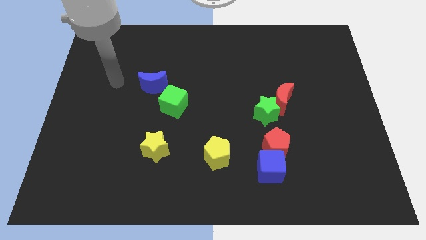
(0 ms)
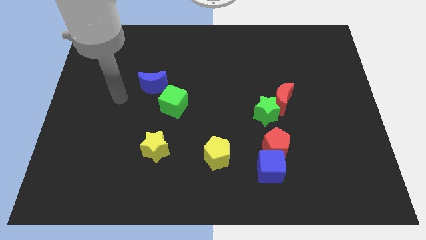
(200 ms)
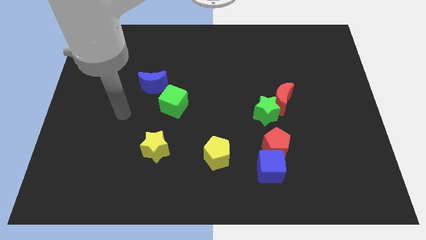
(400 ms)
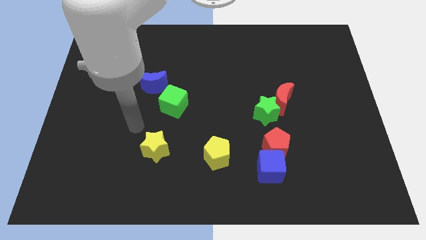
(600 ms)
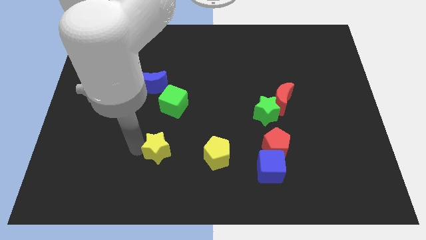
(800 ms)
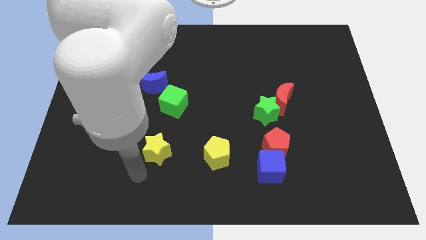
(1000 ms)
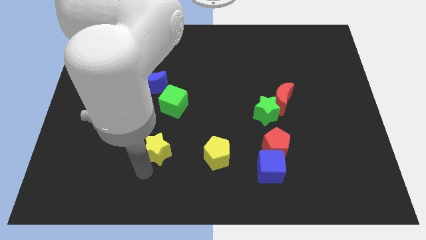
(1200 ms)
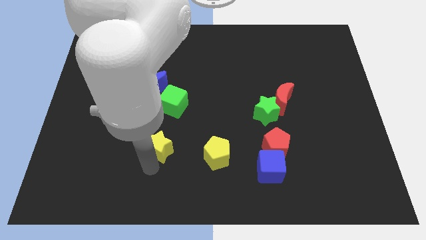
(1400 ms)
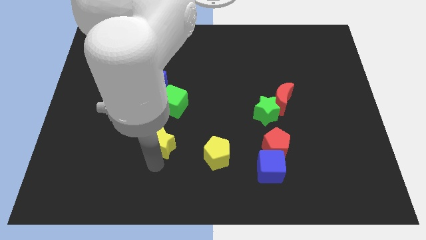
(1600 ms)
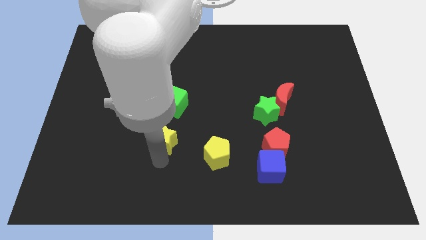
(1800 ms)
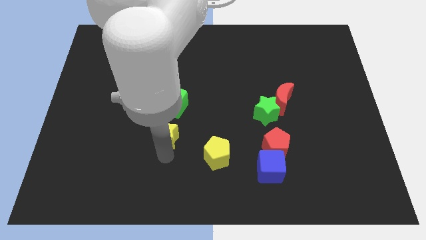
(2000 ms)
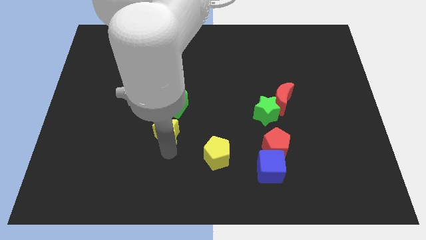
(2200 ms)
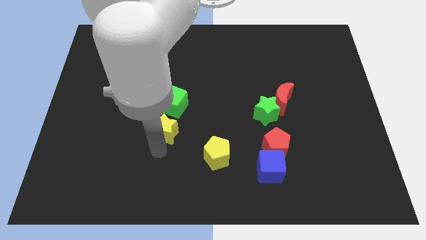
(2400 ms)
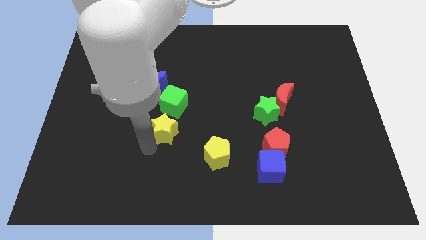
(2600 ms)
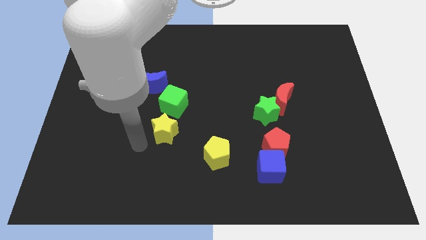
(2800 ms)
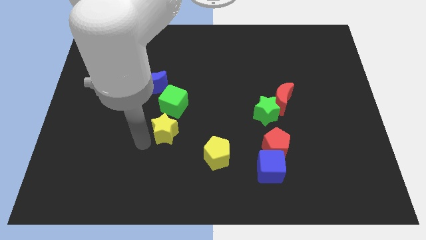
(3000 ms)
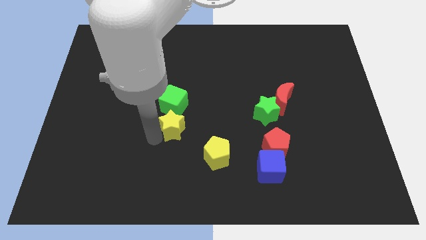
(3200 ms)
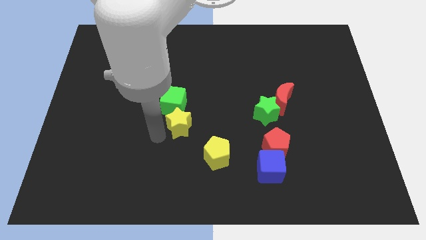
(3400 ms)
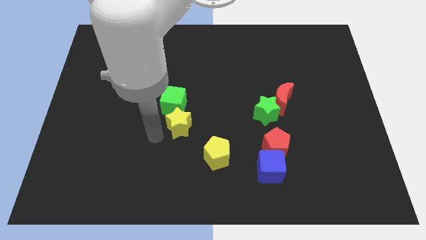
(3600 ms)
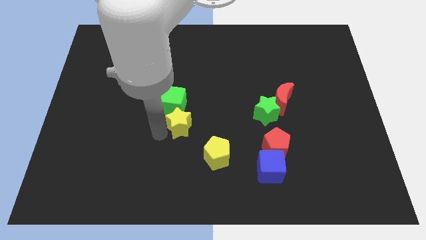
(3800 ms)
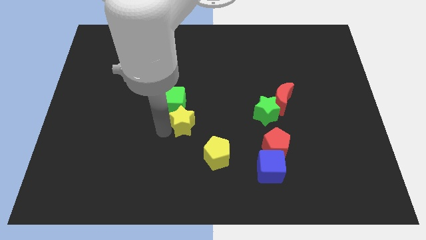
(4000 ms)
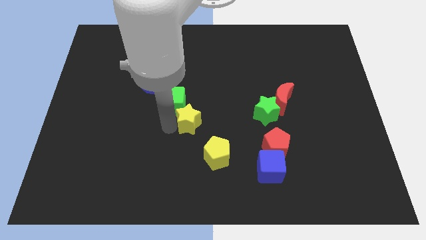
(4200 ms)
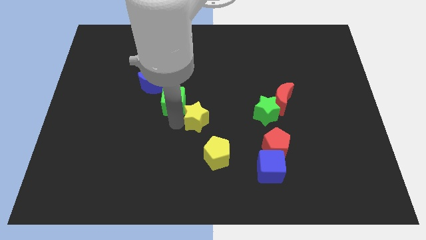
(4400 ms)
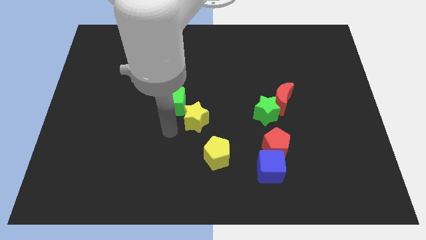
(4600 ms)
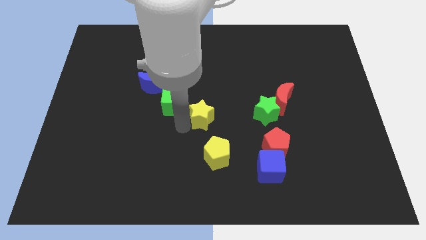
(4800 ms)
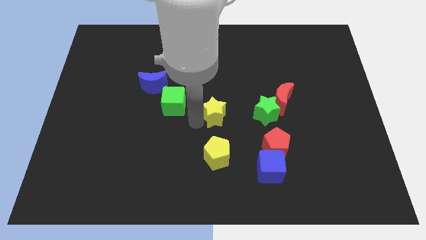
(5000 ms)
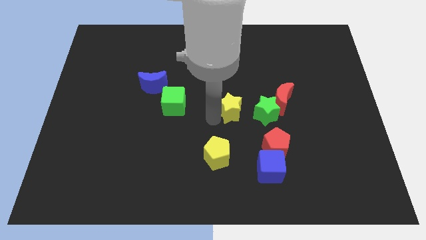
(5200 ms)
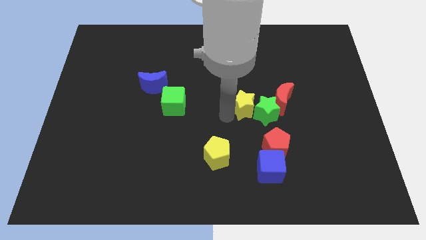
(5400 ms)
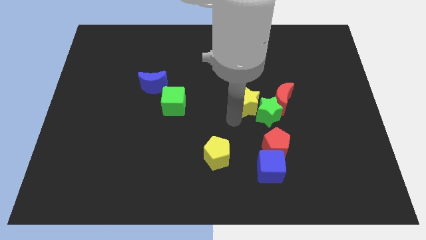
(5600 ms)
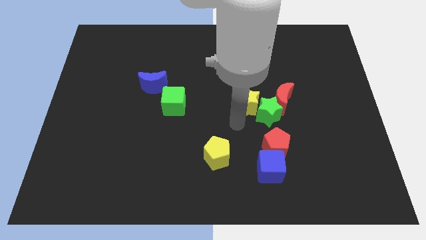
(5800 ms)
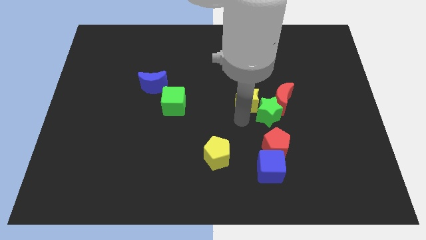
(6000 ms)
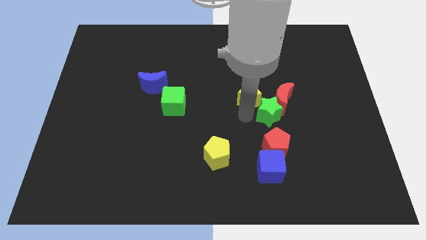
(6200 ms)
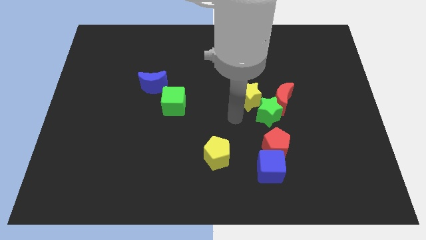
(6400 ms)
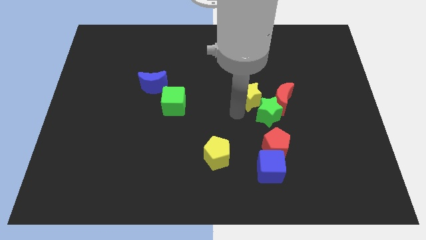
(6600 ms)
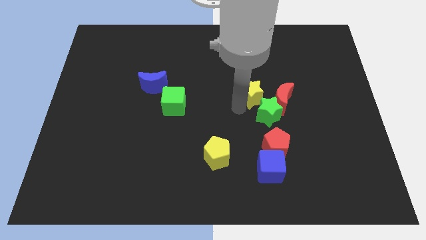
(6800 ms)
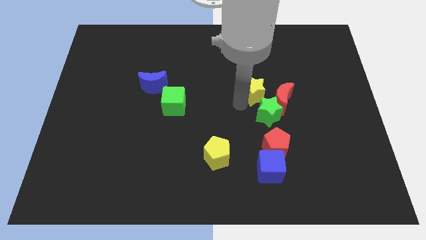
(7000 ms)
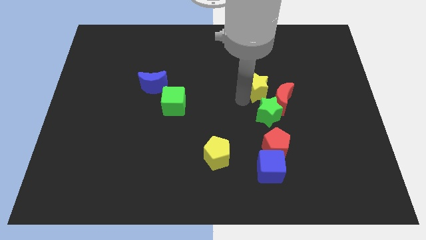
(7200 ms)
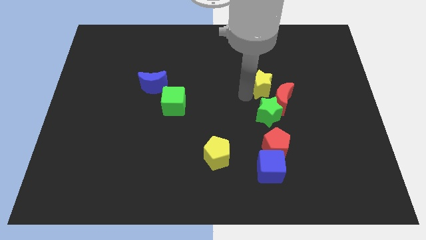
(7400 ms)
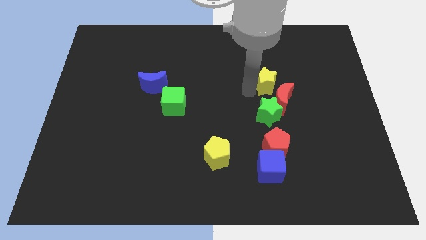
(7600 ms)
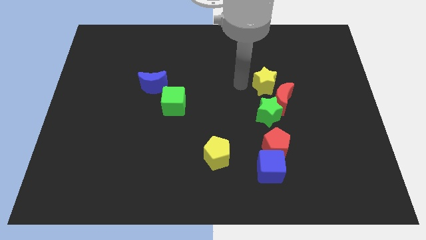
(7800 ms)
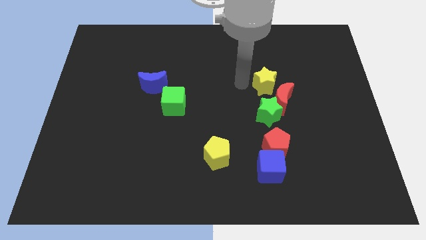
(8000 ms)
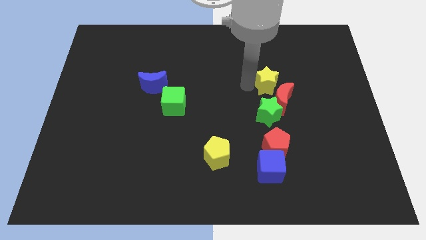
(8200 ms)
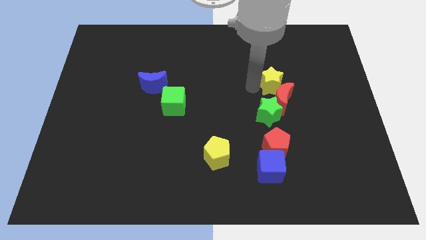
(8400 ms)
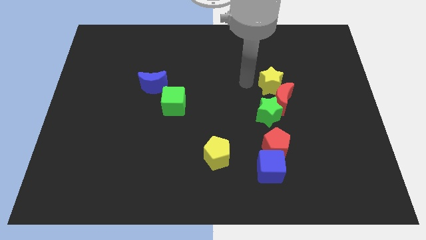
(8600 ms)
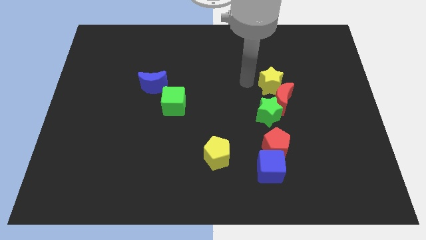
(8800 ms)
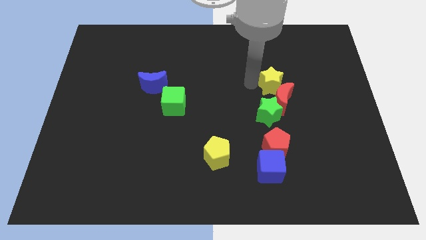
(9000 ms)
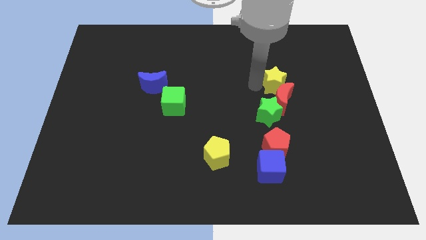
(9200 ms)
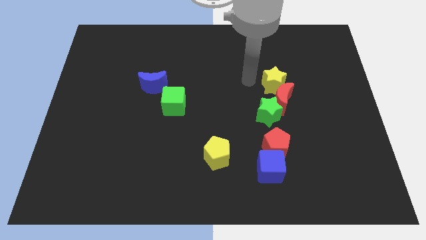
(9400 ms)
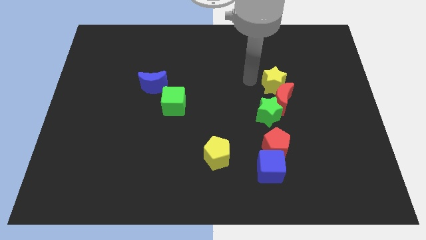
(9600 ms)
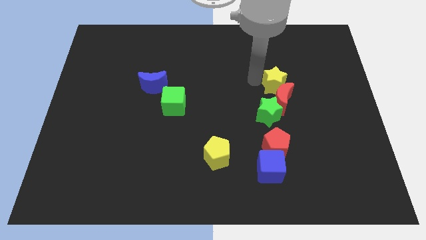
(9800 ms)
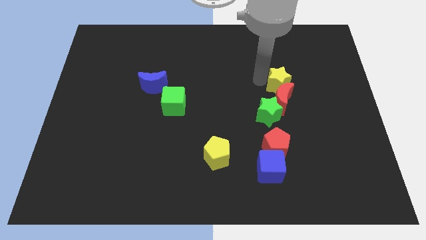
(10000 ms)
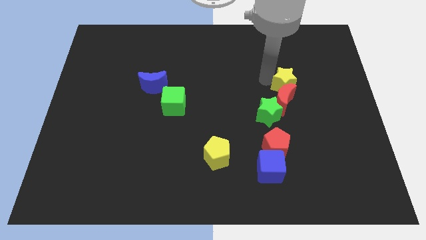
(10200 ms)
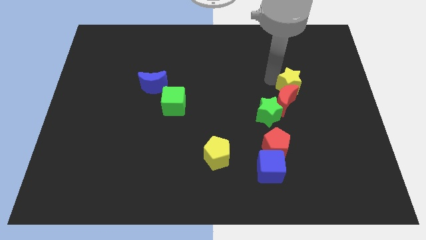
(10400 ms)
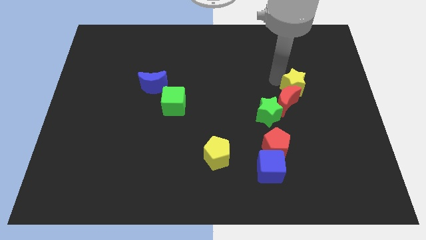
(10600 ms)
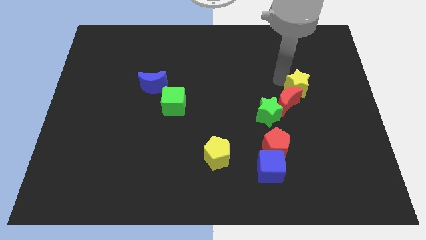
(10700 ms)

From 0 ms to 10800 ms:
put the yellow star to the right side of the red moon

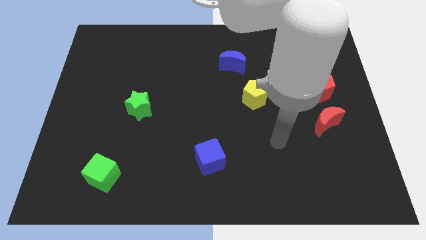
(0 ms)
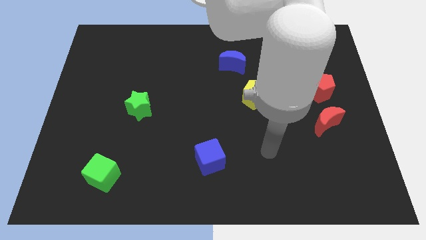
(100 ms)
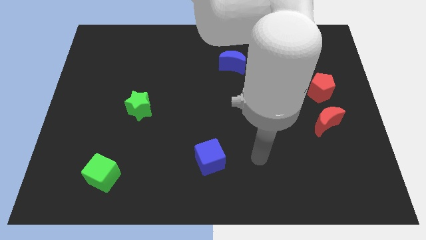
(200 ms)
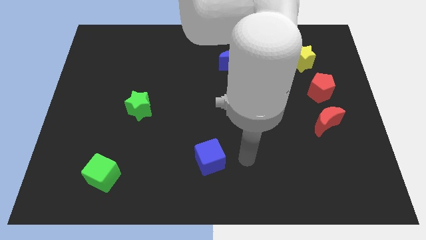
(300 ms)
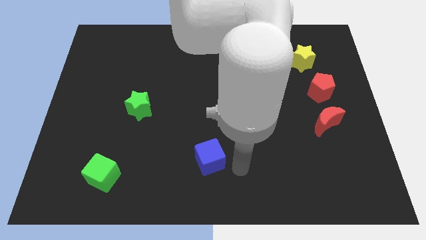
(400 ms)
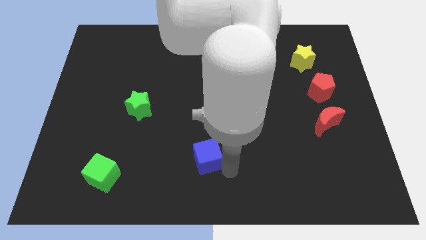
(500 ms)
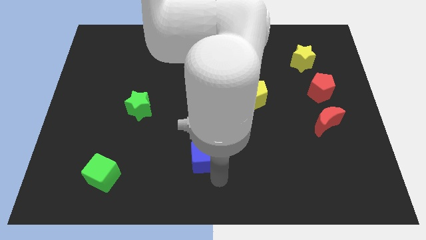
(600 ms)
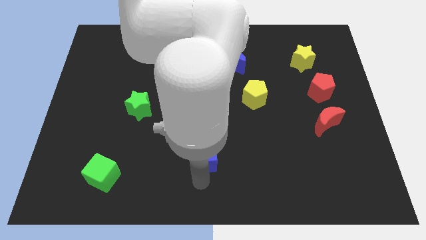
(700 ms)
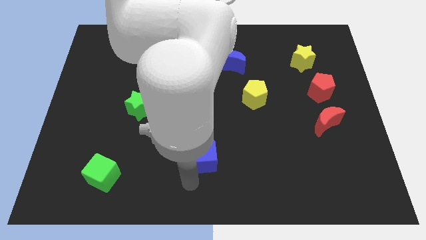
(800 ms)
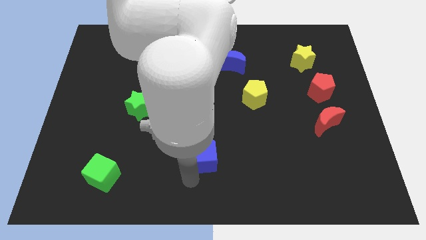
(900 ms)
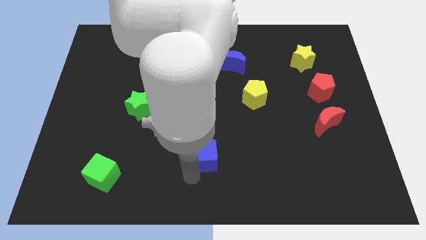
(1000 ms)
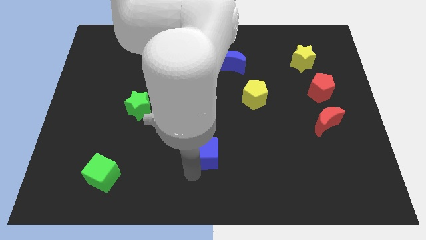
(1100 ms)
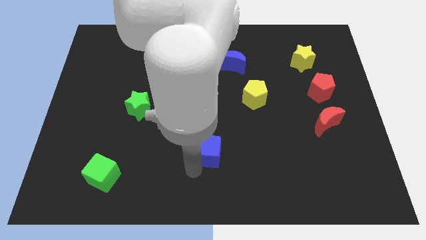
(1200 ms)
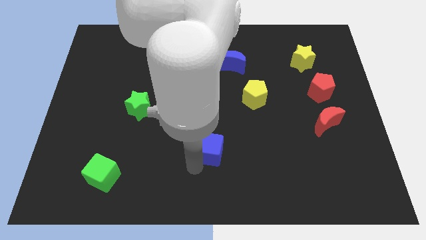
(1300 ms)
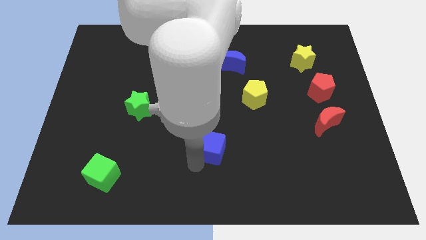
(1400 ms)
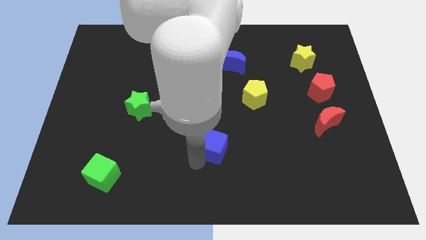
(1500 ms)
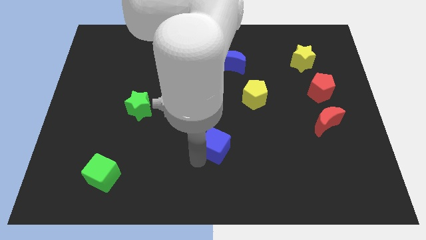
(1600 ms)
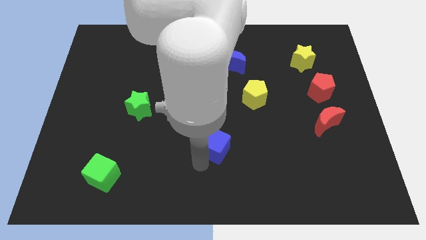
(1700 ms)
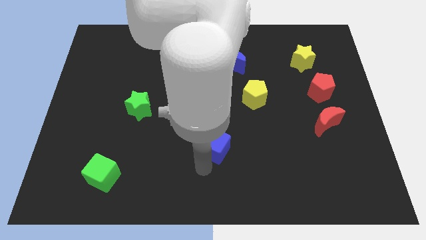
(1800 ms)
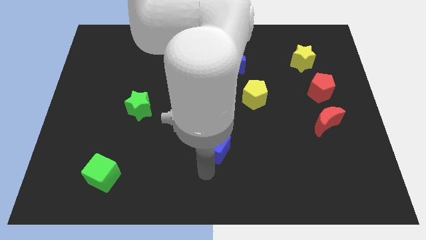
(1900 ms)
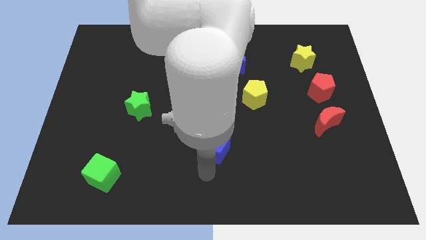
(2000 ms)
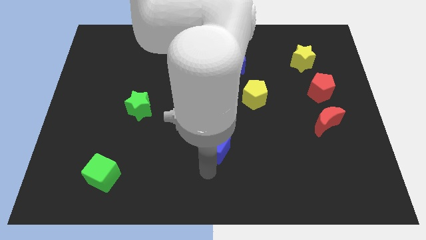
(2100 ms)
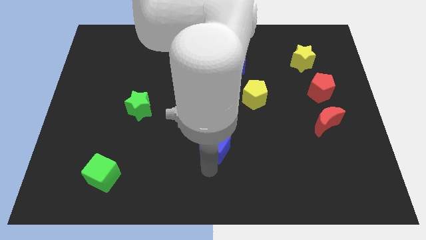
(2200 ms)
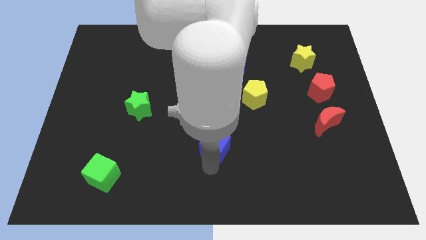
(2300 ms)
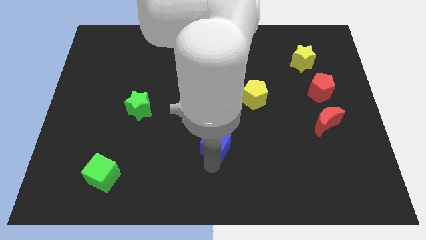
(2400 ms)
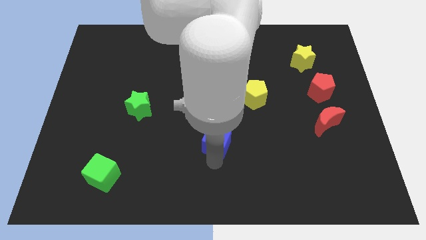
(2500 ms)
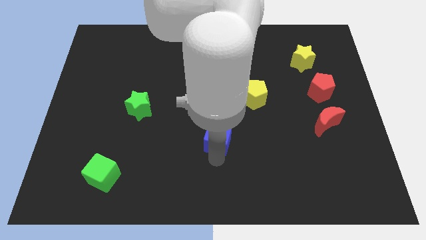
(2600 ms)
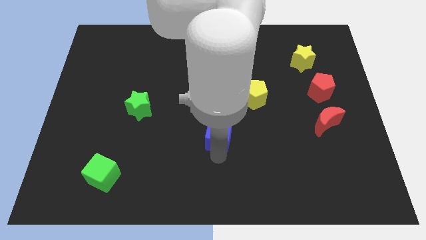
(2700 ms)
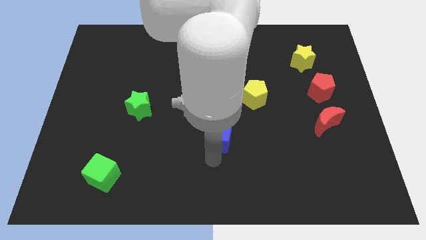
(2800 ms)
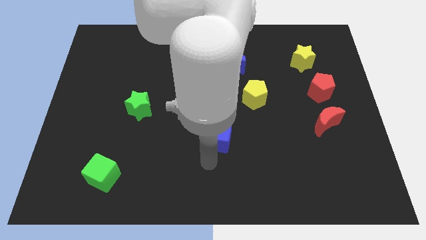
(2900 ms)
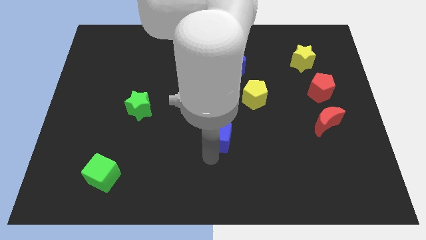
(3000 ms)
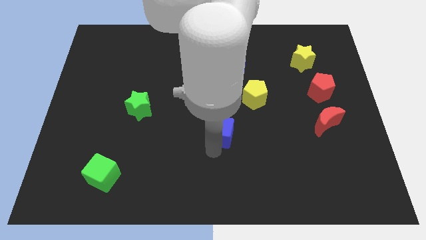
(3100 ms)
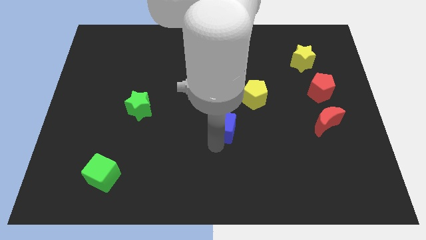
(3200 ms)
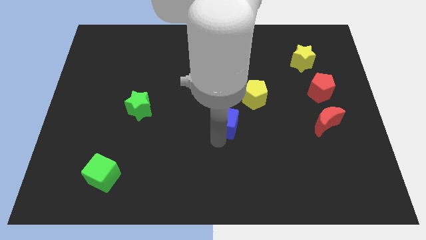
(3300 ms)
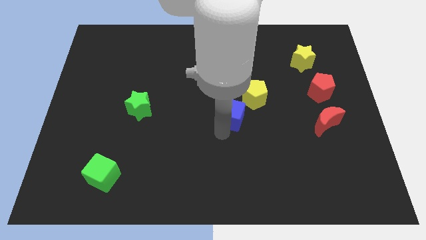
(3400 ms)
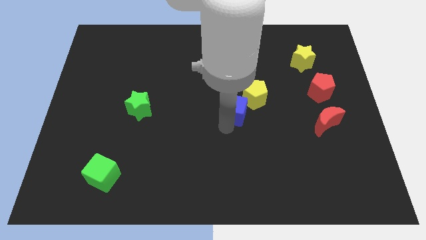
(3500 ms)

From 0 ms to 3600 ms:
put the blue cube to the bottom side of the blue moon
